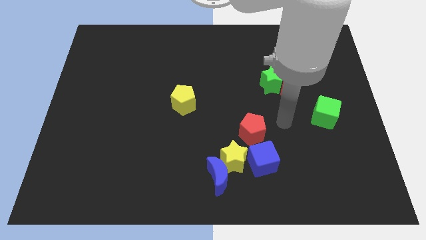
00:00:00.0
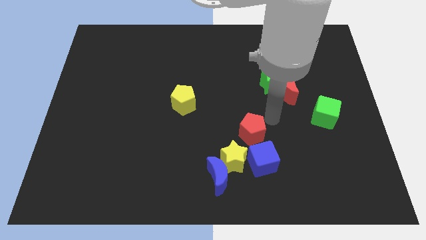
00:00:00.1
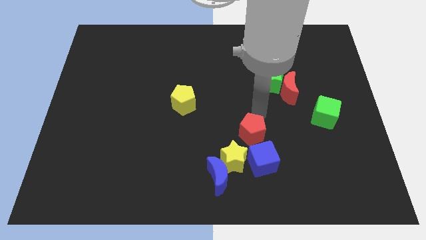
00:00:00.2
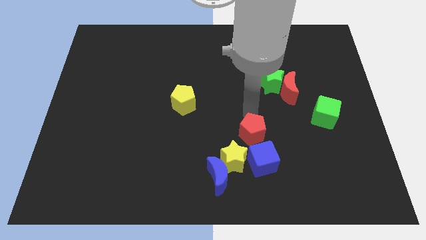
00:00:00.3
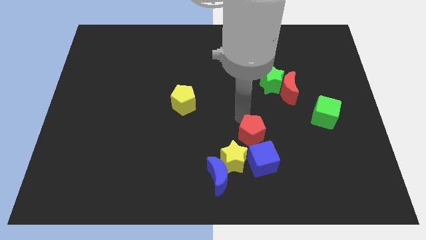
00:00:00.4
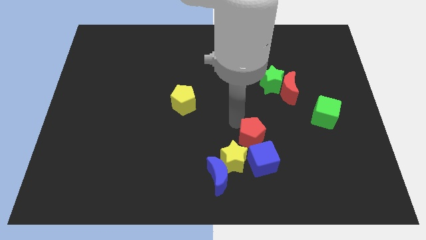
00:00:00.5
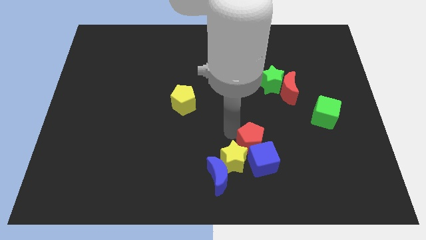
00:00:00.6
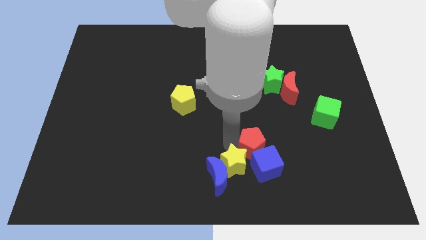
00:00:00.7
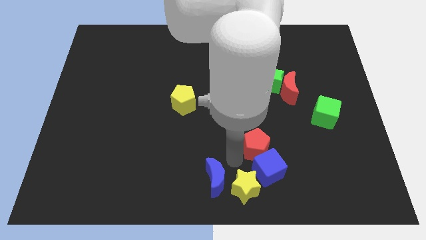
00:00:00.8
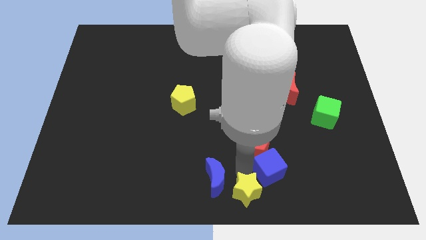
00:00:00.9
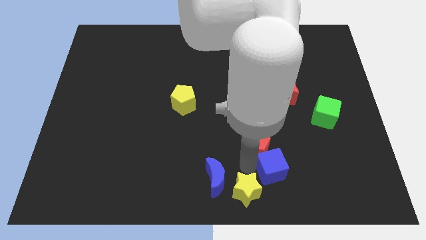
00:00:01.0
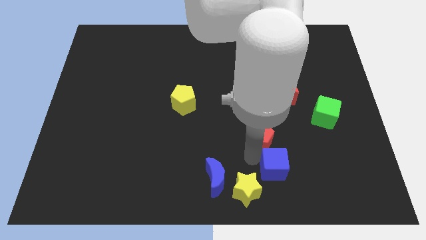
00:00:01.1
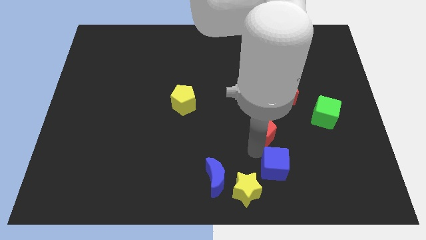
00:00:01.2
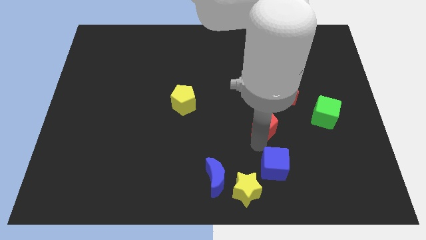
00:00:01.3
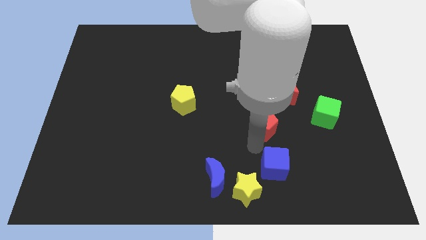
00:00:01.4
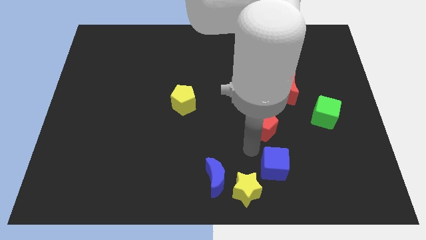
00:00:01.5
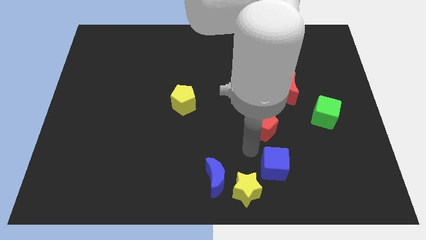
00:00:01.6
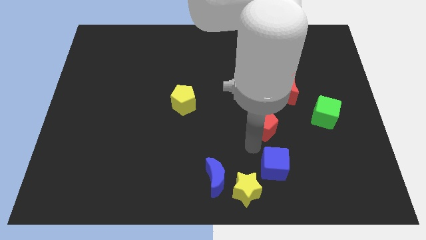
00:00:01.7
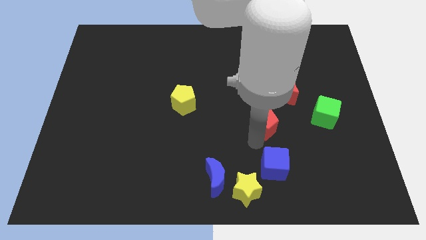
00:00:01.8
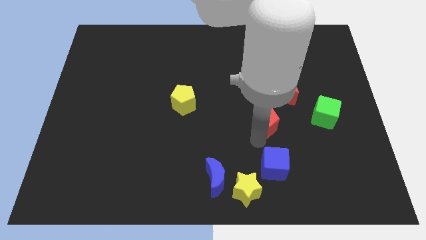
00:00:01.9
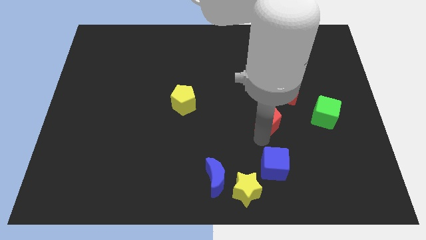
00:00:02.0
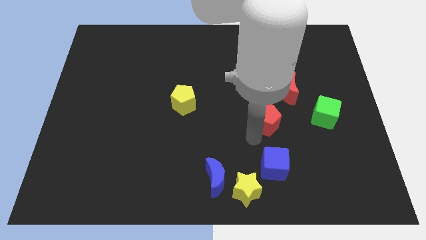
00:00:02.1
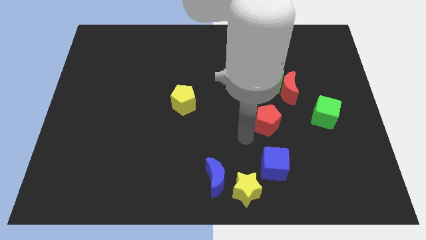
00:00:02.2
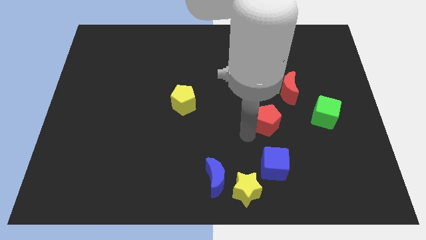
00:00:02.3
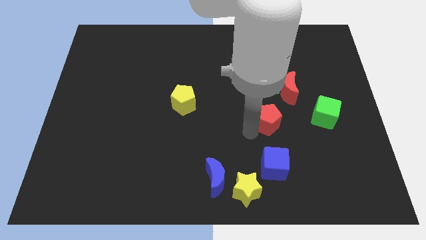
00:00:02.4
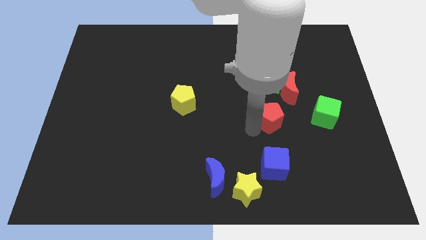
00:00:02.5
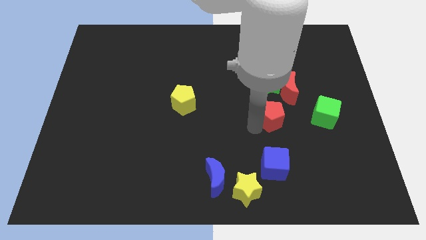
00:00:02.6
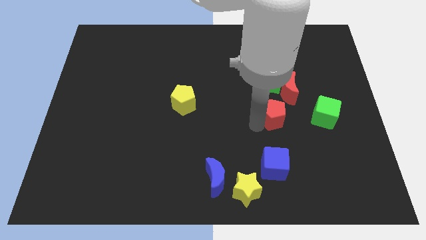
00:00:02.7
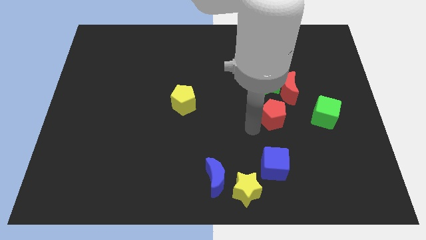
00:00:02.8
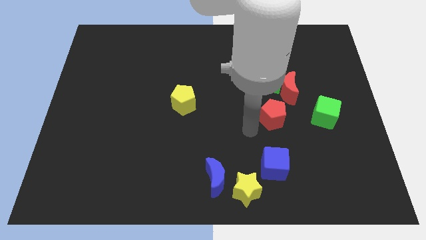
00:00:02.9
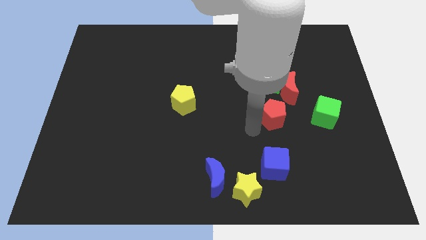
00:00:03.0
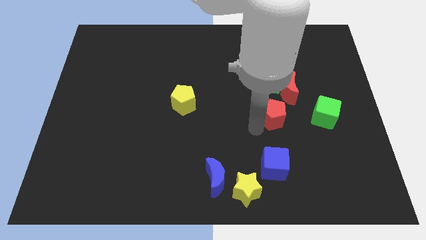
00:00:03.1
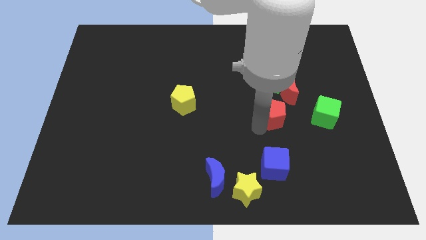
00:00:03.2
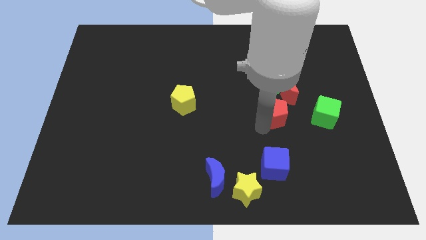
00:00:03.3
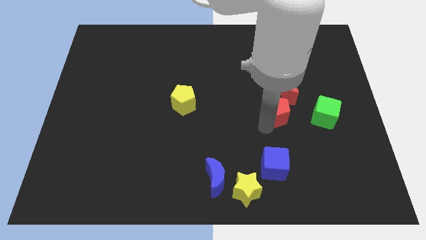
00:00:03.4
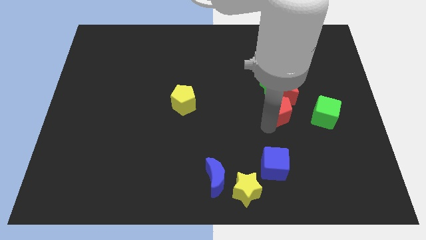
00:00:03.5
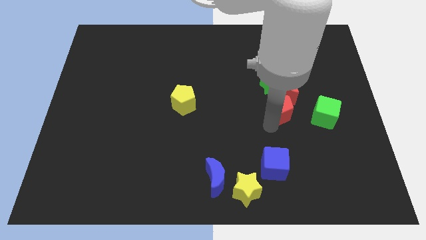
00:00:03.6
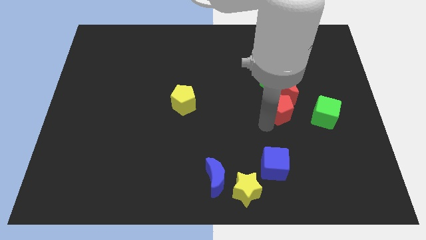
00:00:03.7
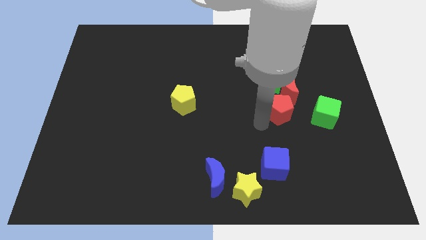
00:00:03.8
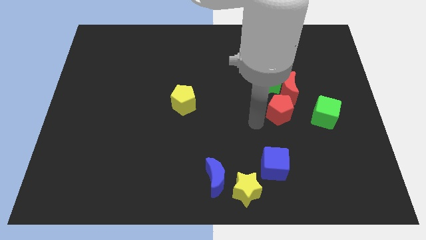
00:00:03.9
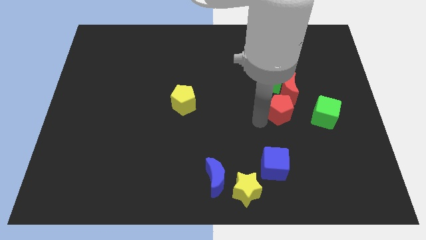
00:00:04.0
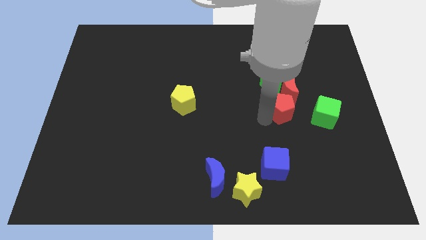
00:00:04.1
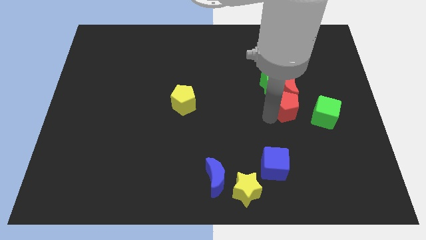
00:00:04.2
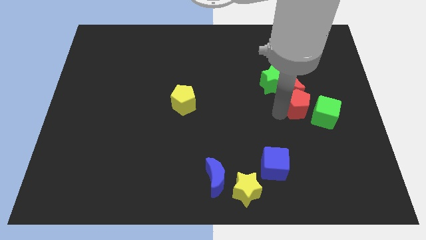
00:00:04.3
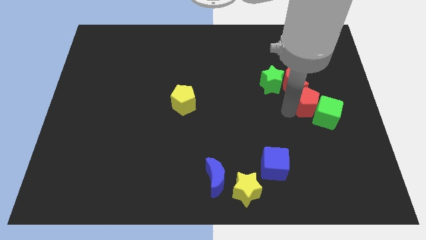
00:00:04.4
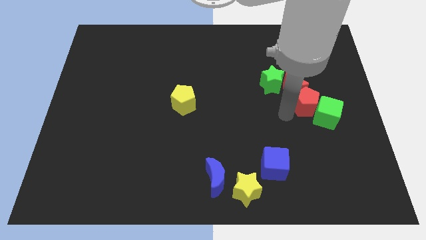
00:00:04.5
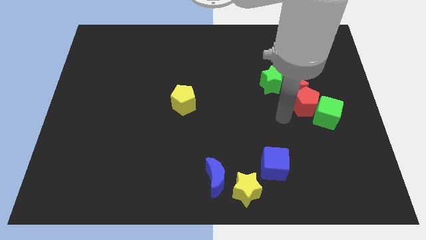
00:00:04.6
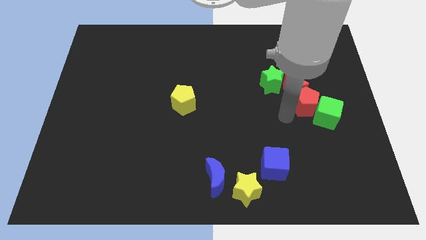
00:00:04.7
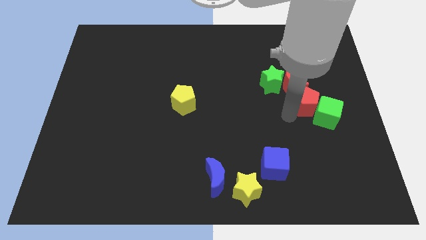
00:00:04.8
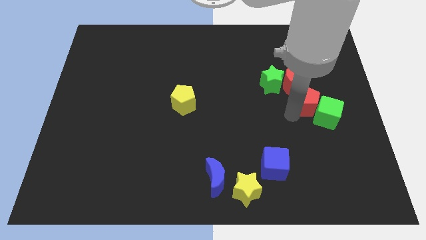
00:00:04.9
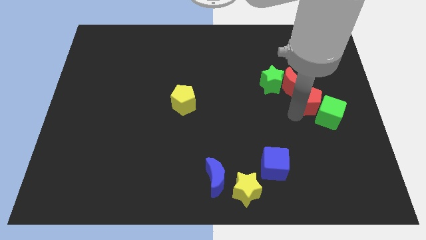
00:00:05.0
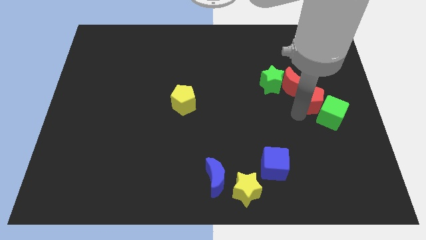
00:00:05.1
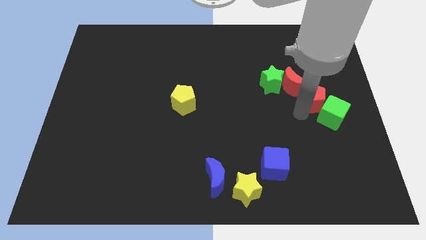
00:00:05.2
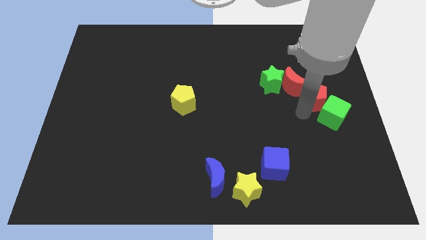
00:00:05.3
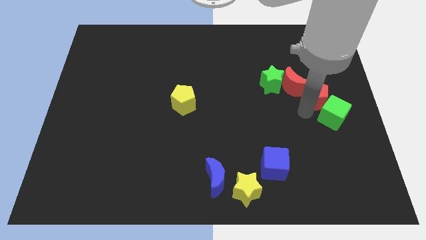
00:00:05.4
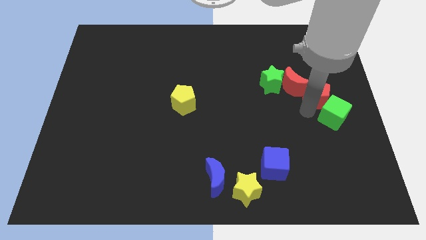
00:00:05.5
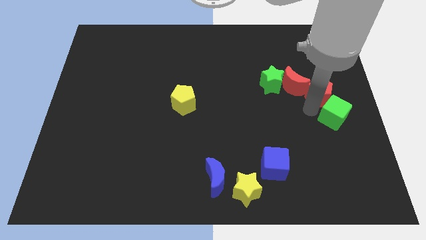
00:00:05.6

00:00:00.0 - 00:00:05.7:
slide the red pentagon to the center right

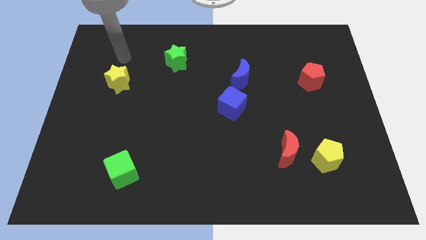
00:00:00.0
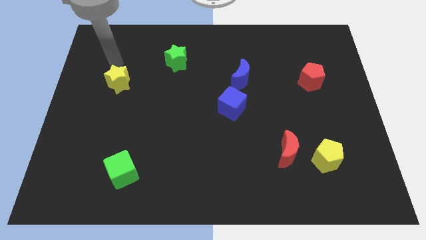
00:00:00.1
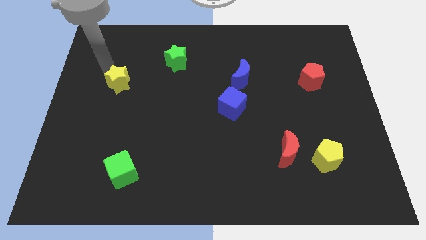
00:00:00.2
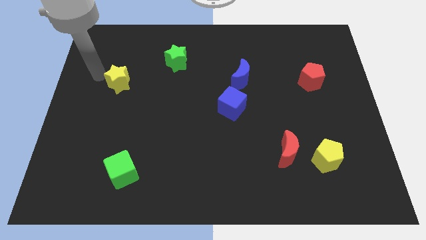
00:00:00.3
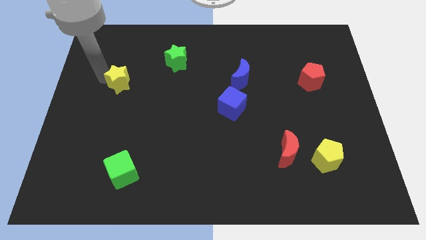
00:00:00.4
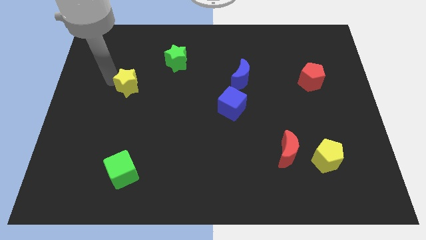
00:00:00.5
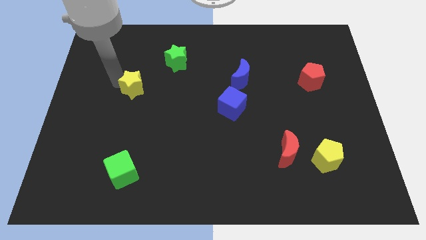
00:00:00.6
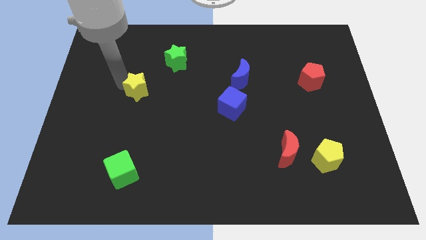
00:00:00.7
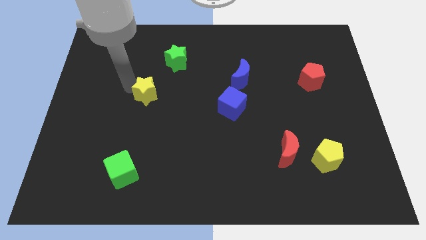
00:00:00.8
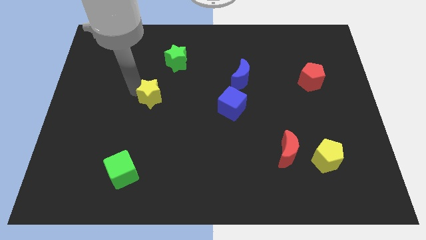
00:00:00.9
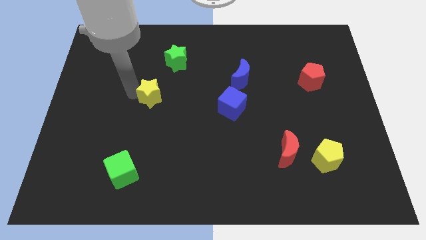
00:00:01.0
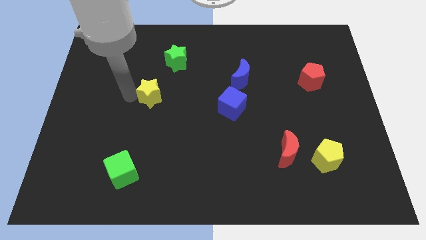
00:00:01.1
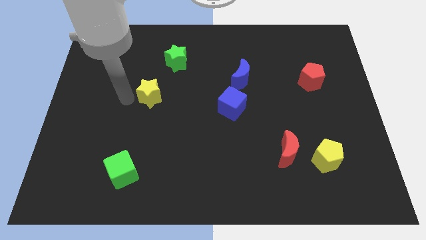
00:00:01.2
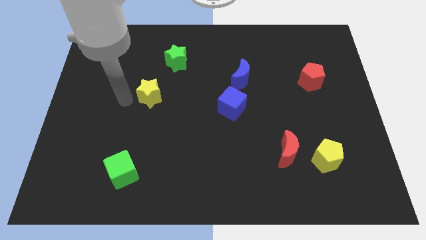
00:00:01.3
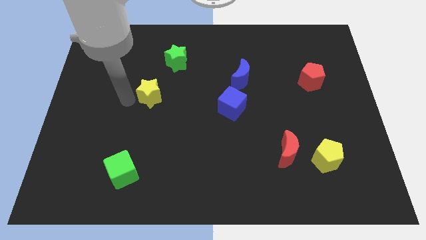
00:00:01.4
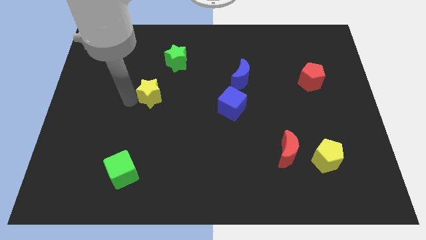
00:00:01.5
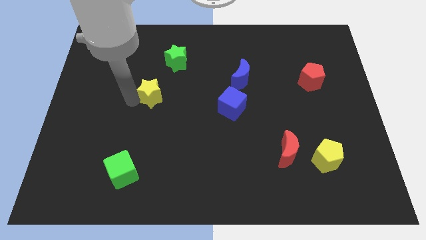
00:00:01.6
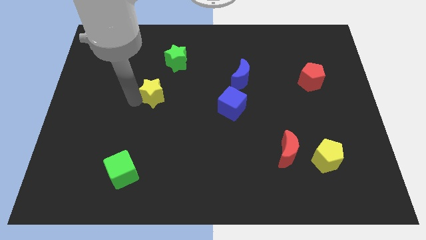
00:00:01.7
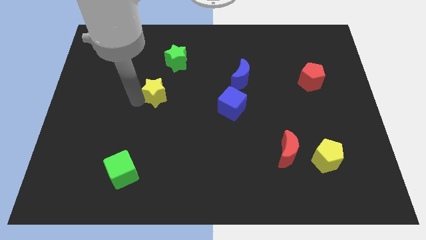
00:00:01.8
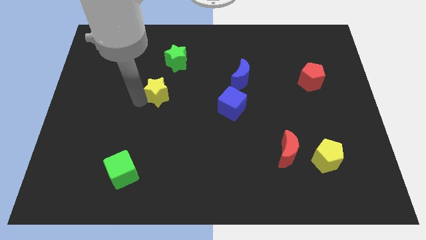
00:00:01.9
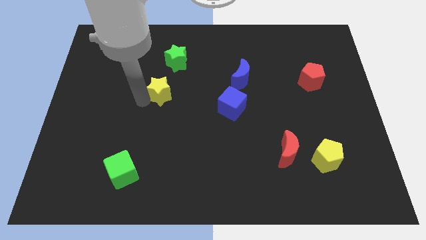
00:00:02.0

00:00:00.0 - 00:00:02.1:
slide the yellow star to the center
